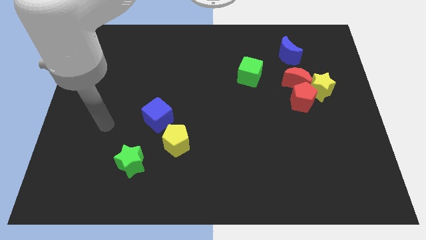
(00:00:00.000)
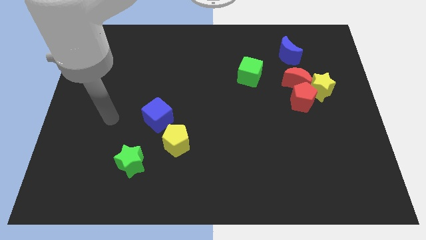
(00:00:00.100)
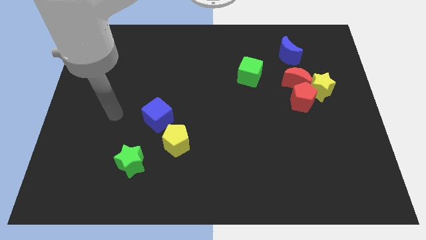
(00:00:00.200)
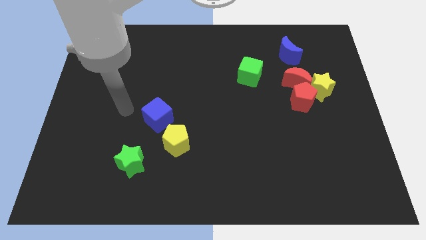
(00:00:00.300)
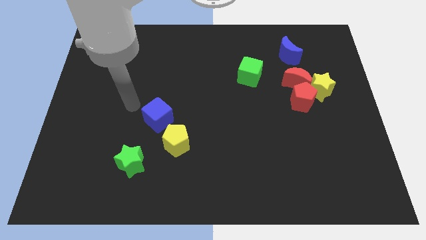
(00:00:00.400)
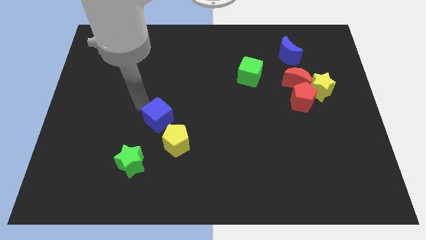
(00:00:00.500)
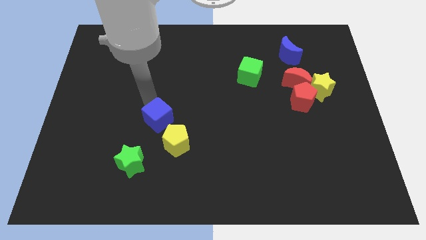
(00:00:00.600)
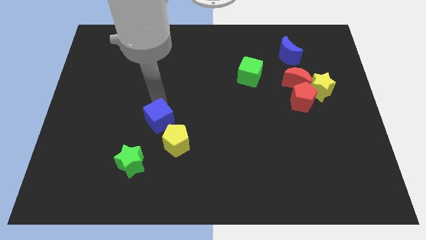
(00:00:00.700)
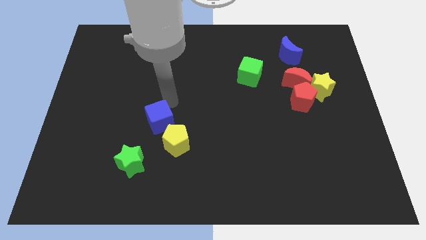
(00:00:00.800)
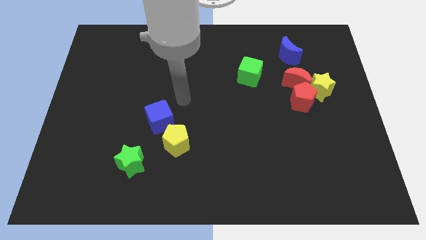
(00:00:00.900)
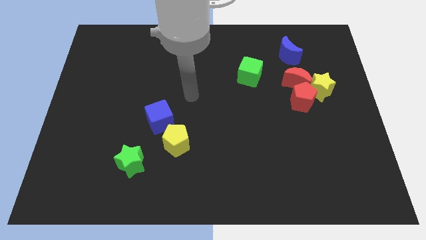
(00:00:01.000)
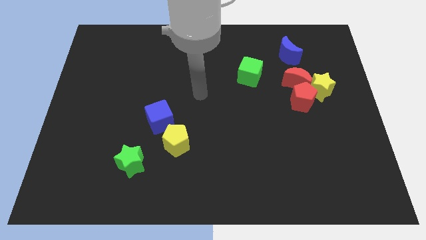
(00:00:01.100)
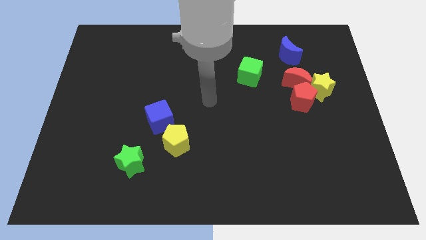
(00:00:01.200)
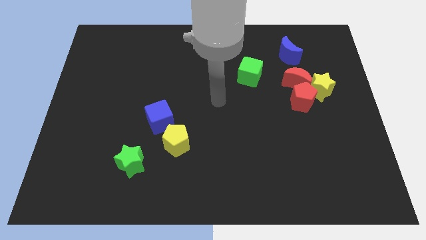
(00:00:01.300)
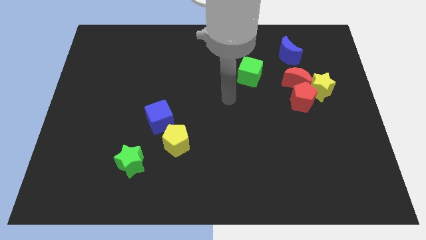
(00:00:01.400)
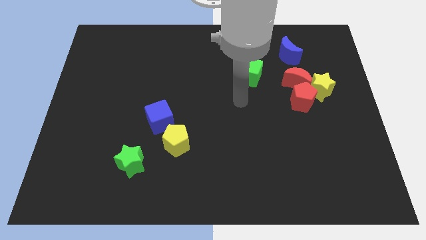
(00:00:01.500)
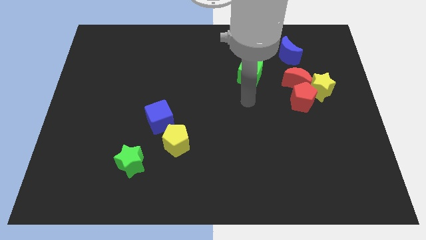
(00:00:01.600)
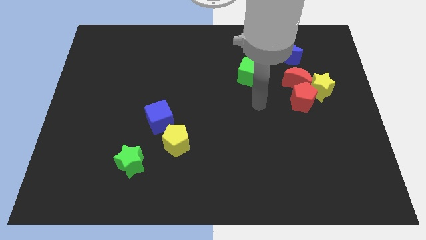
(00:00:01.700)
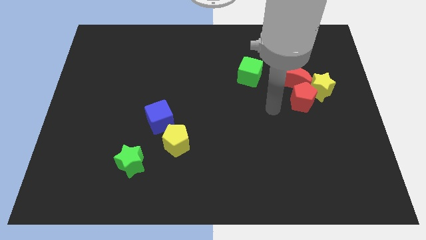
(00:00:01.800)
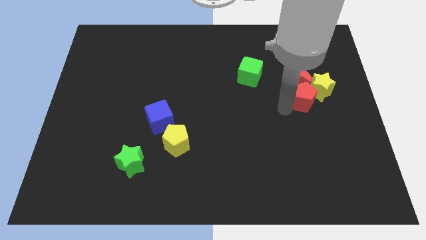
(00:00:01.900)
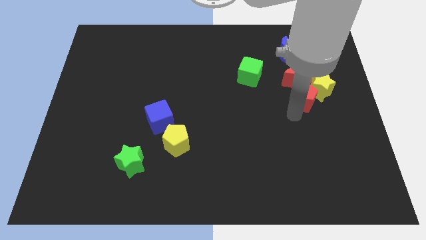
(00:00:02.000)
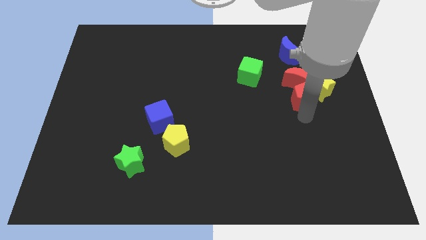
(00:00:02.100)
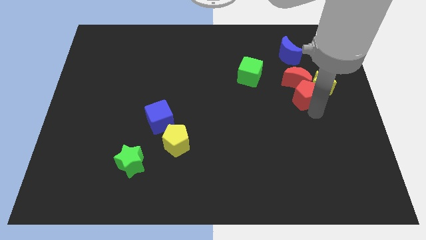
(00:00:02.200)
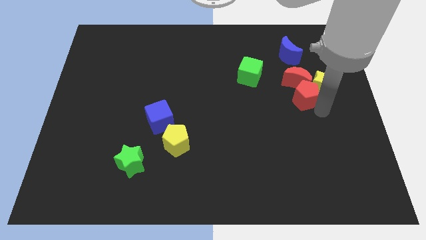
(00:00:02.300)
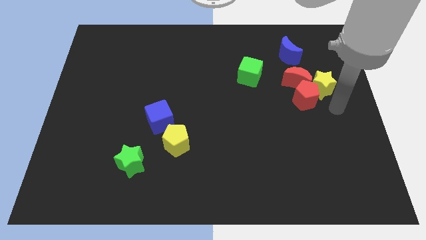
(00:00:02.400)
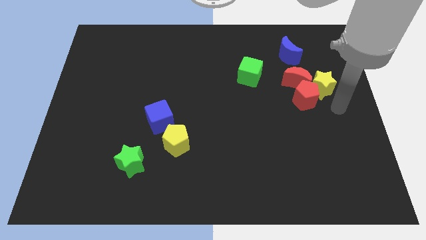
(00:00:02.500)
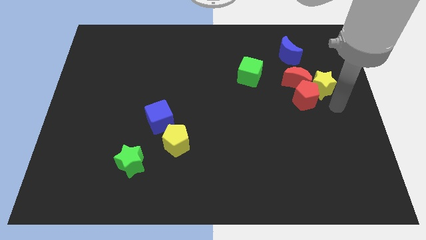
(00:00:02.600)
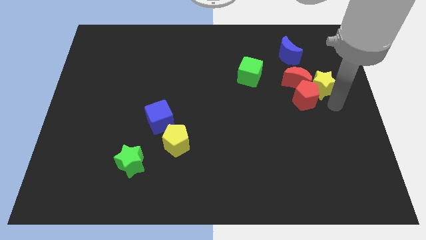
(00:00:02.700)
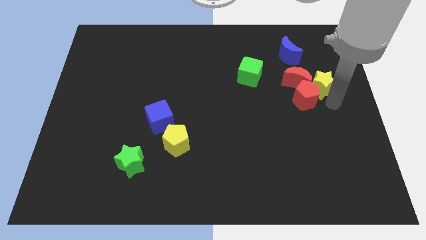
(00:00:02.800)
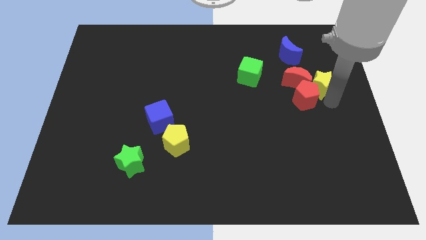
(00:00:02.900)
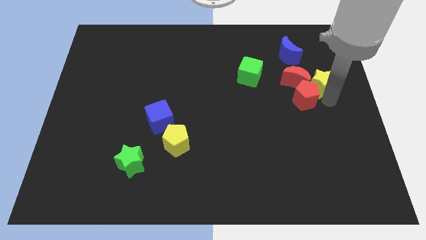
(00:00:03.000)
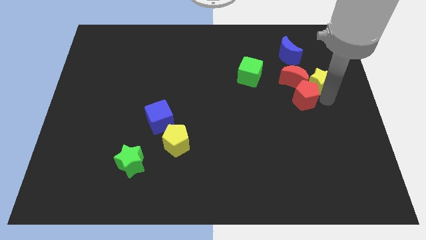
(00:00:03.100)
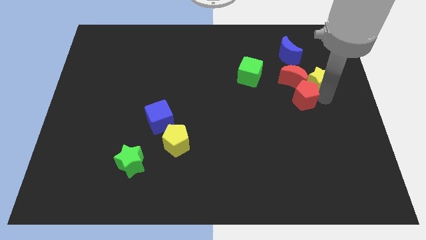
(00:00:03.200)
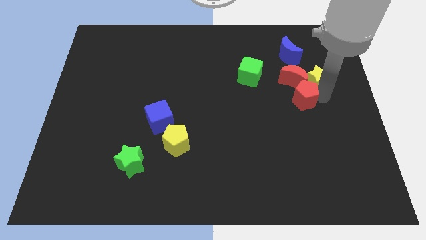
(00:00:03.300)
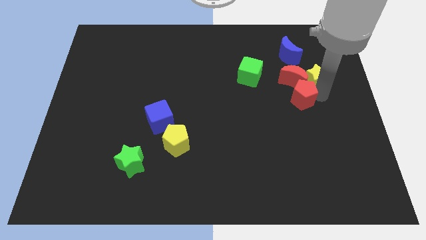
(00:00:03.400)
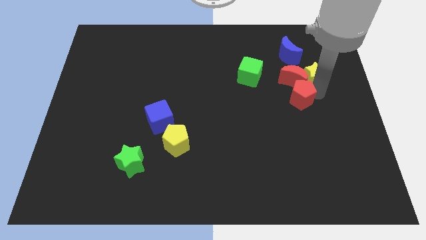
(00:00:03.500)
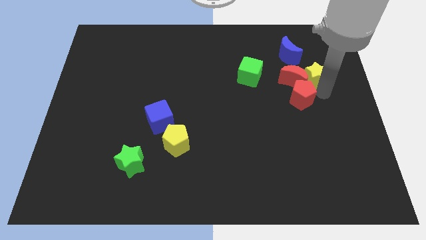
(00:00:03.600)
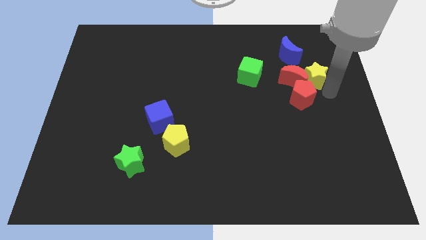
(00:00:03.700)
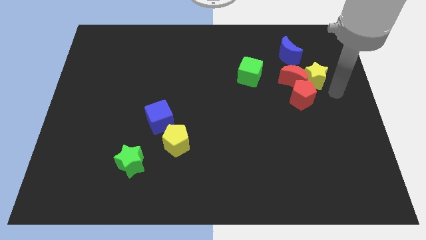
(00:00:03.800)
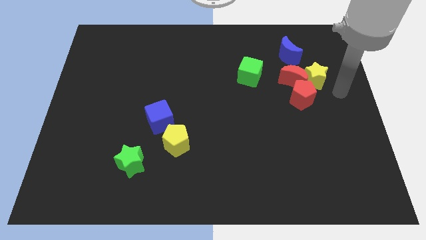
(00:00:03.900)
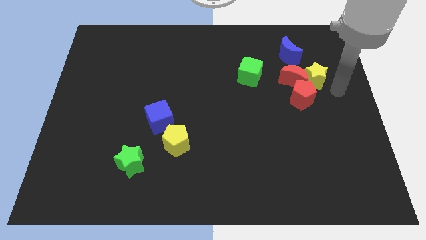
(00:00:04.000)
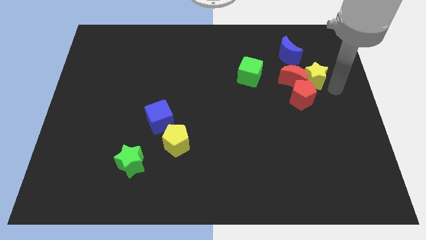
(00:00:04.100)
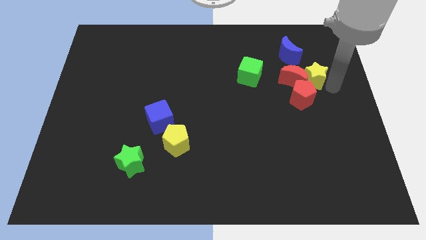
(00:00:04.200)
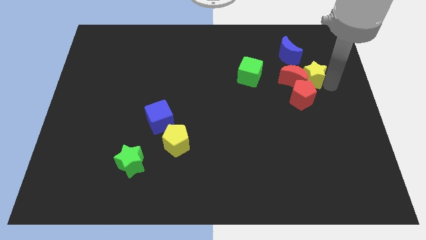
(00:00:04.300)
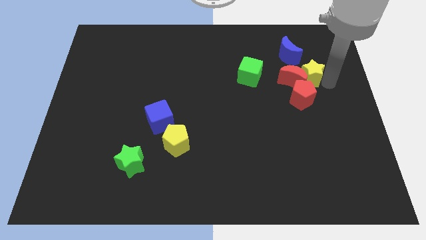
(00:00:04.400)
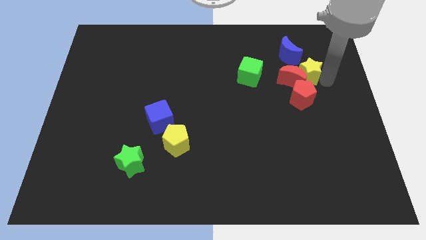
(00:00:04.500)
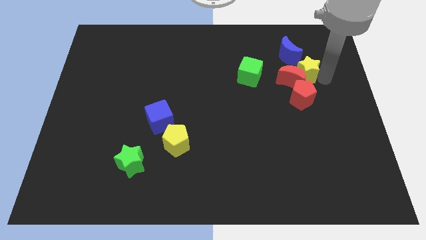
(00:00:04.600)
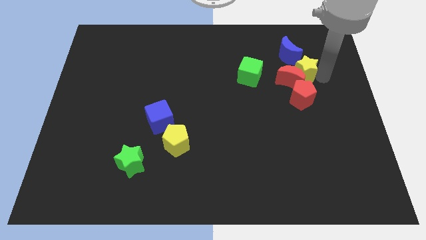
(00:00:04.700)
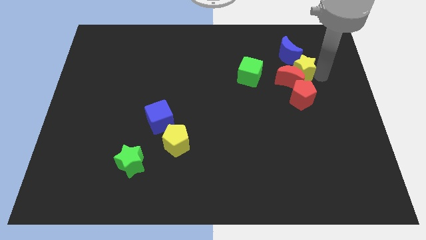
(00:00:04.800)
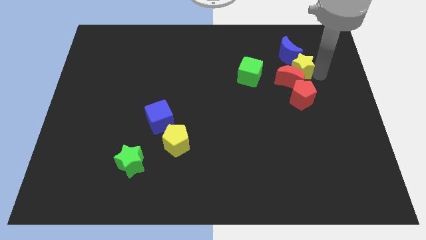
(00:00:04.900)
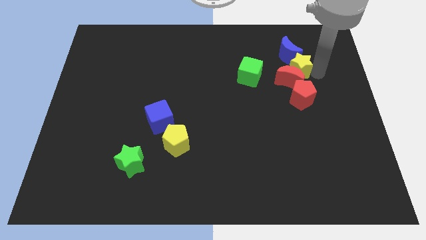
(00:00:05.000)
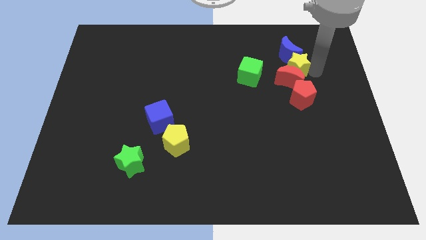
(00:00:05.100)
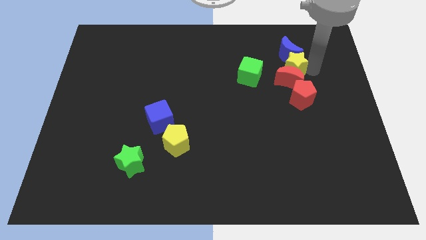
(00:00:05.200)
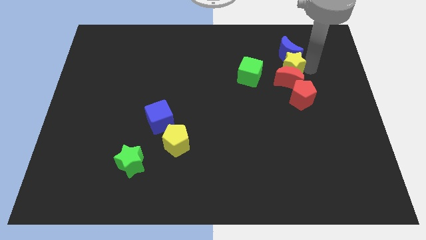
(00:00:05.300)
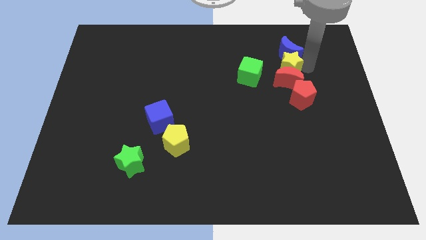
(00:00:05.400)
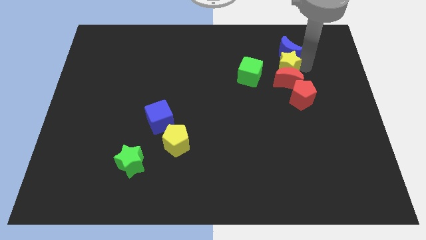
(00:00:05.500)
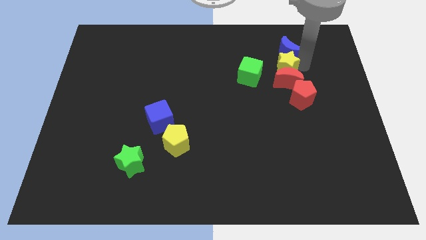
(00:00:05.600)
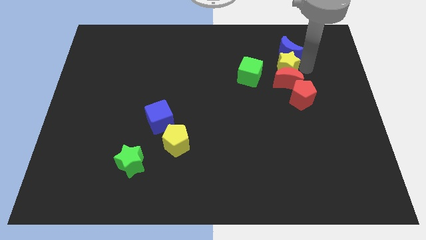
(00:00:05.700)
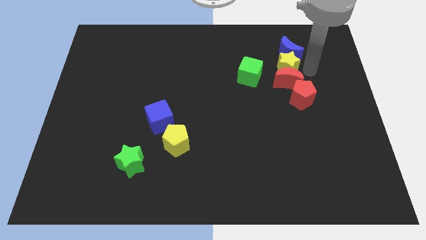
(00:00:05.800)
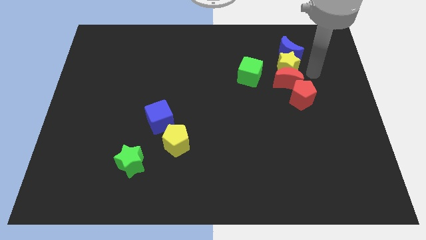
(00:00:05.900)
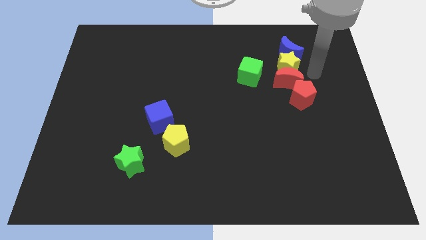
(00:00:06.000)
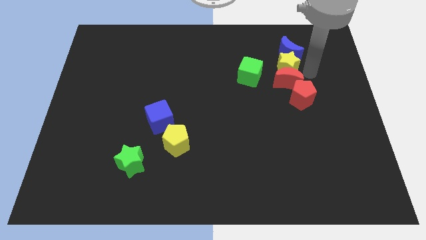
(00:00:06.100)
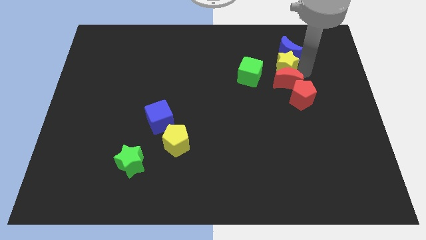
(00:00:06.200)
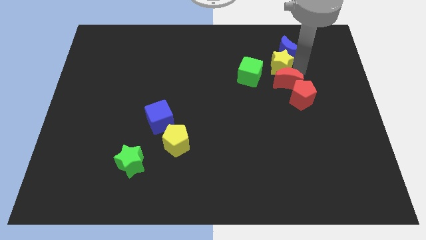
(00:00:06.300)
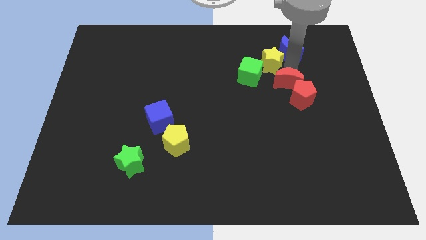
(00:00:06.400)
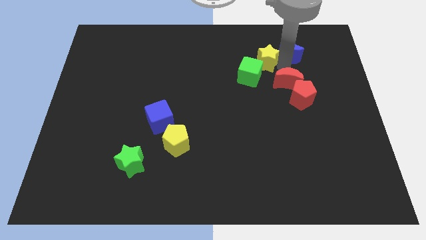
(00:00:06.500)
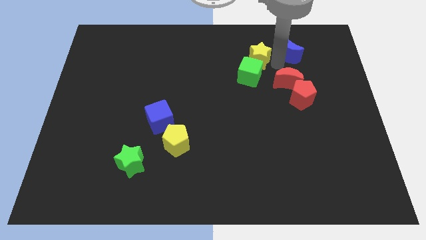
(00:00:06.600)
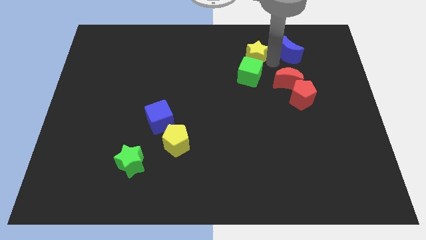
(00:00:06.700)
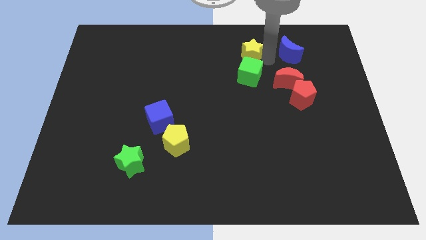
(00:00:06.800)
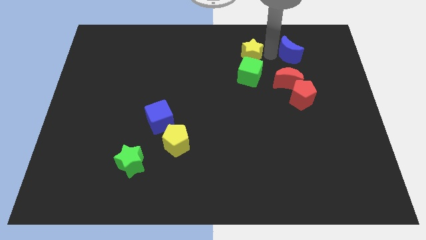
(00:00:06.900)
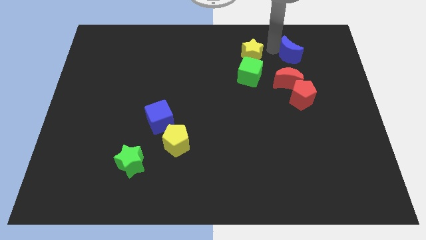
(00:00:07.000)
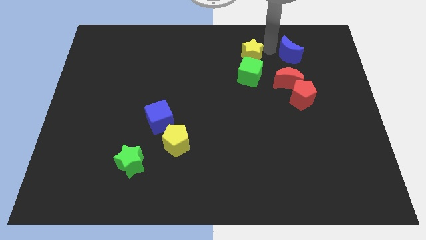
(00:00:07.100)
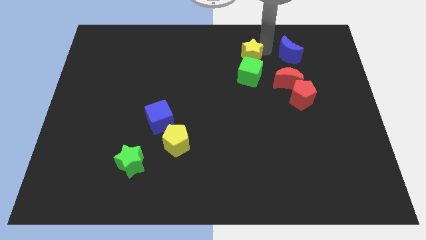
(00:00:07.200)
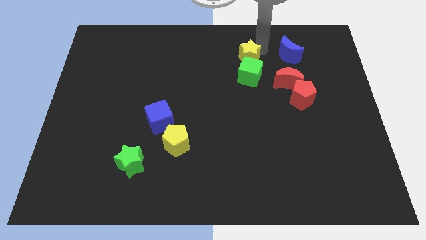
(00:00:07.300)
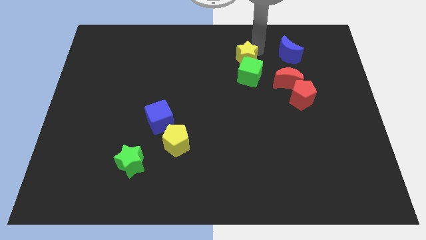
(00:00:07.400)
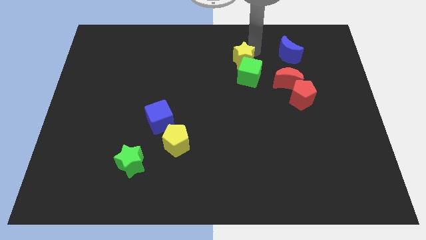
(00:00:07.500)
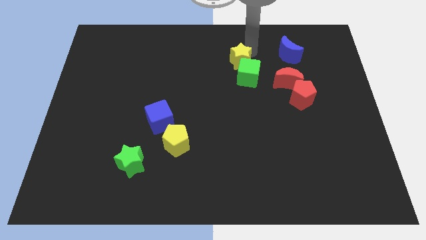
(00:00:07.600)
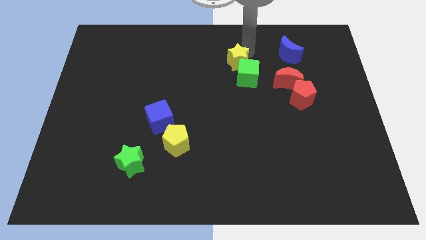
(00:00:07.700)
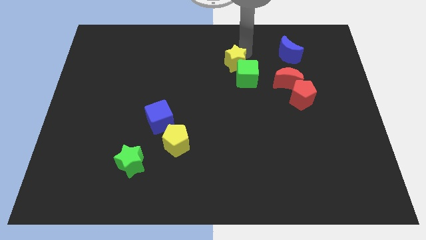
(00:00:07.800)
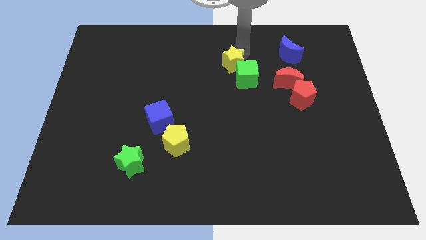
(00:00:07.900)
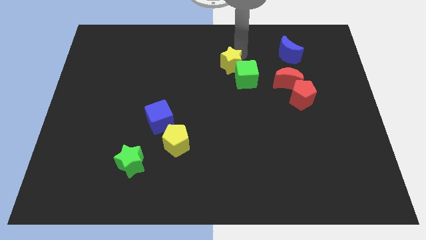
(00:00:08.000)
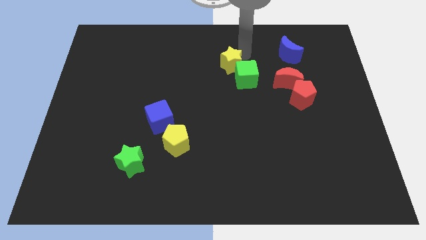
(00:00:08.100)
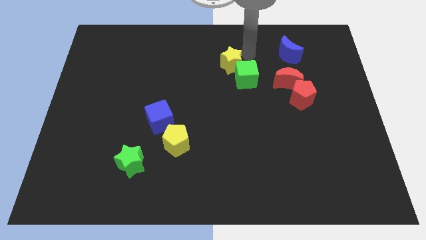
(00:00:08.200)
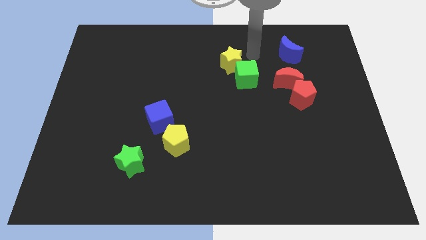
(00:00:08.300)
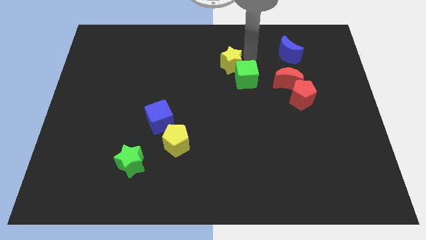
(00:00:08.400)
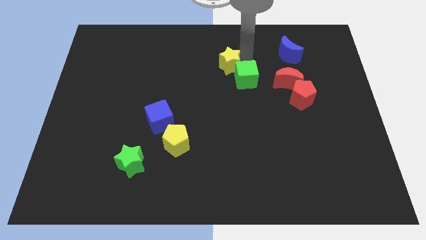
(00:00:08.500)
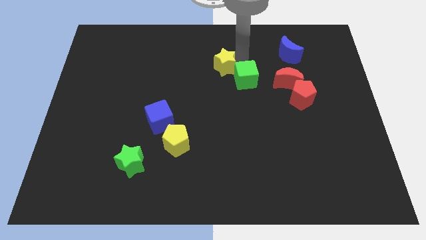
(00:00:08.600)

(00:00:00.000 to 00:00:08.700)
slide the yellow star left
